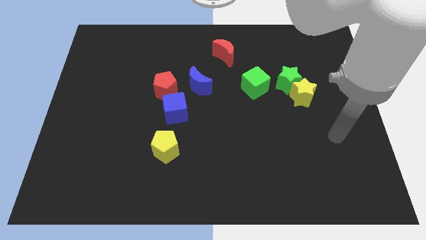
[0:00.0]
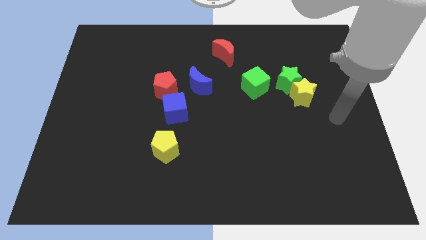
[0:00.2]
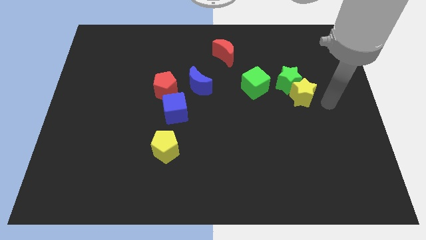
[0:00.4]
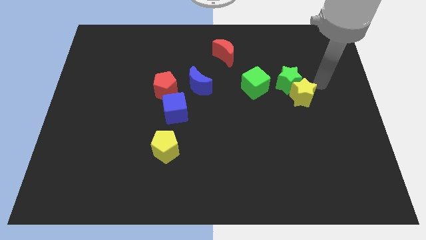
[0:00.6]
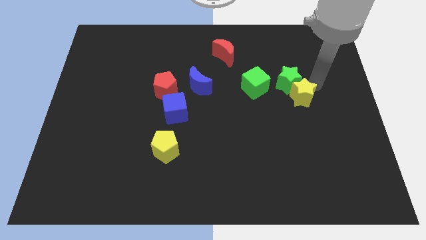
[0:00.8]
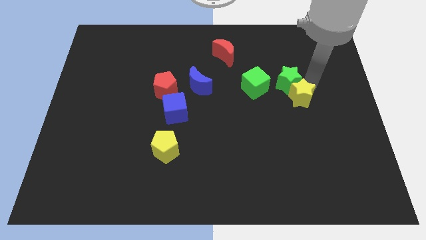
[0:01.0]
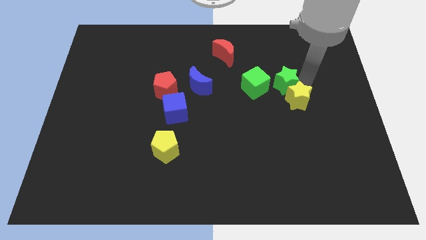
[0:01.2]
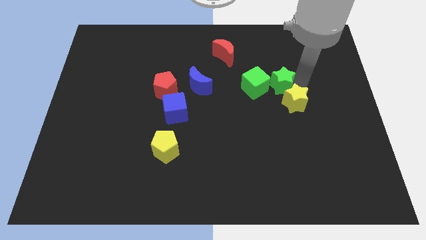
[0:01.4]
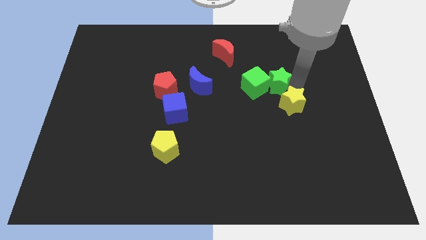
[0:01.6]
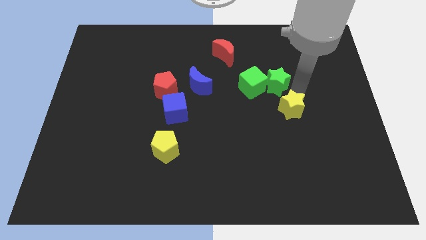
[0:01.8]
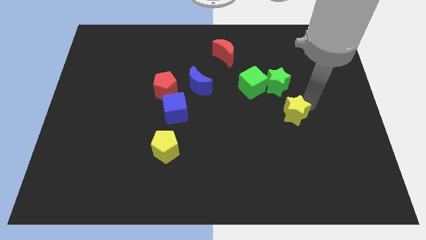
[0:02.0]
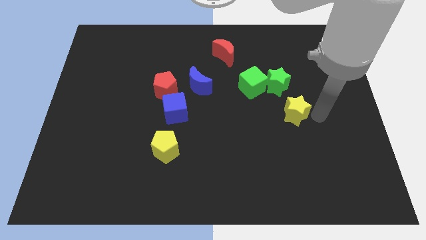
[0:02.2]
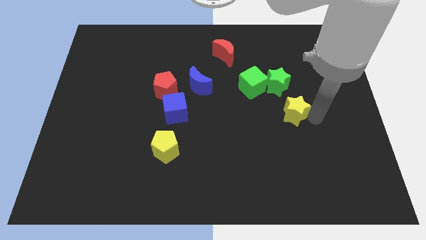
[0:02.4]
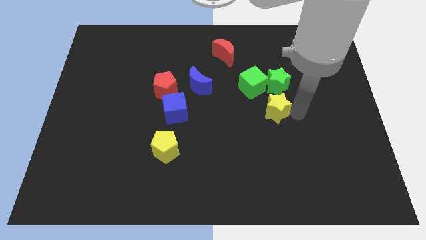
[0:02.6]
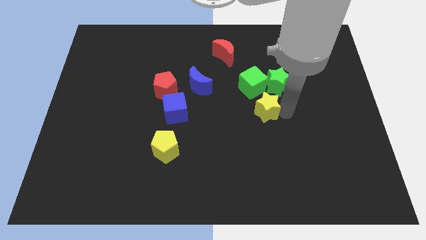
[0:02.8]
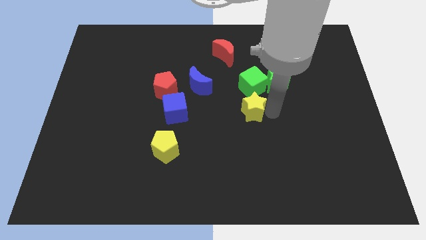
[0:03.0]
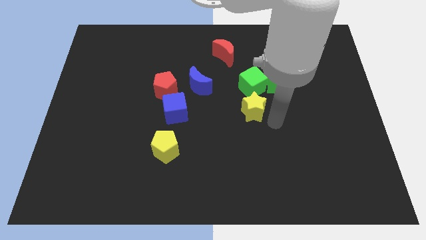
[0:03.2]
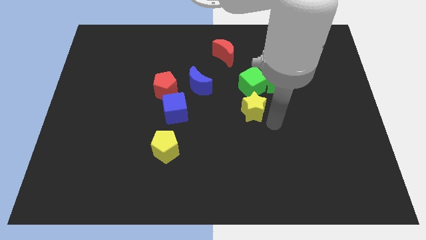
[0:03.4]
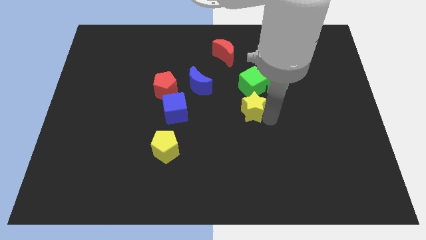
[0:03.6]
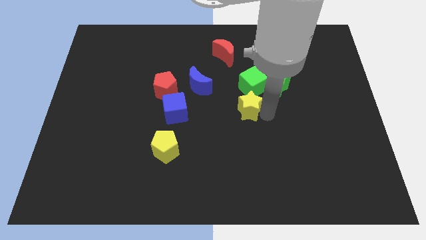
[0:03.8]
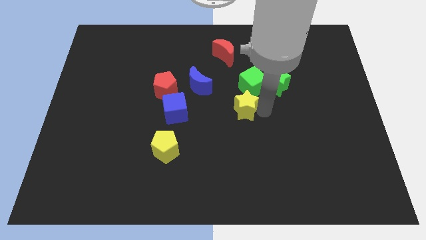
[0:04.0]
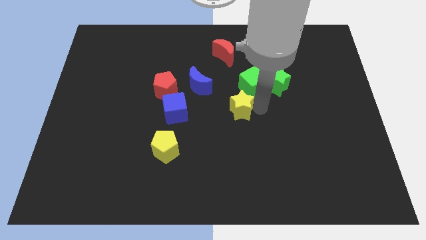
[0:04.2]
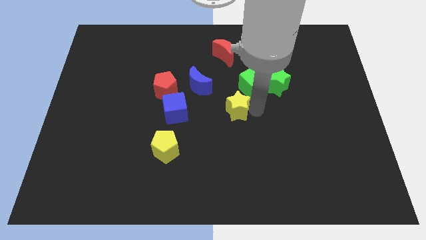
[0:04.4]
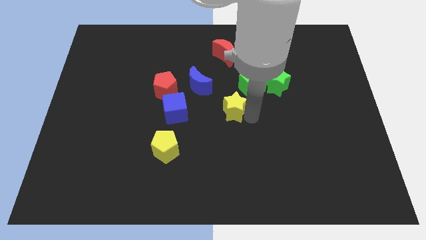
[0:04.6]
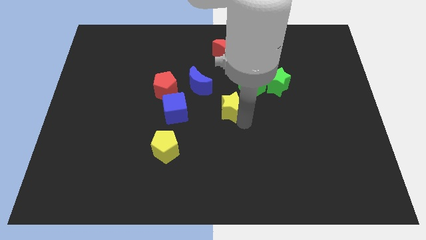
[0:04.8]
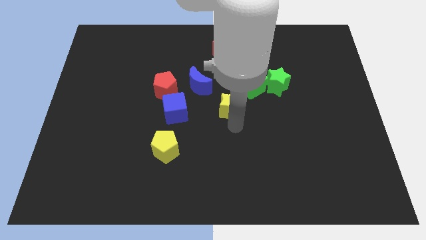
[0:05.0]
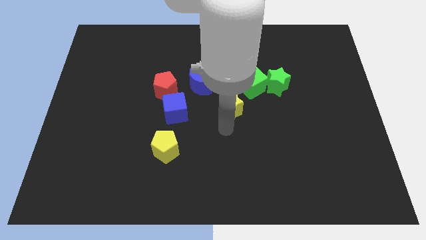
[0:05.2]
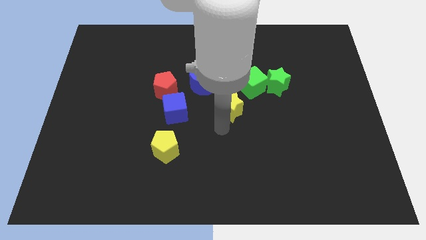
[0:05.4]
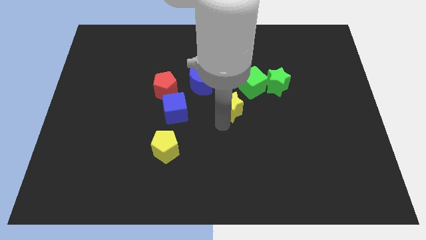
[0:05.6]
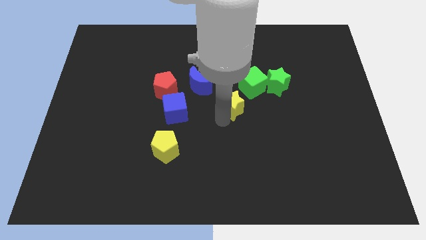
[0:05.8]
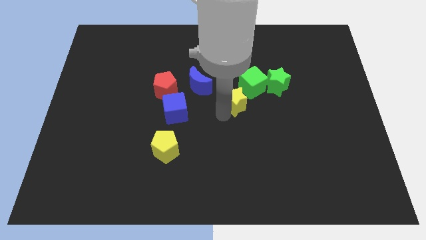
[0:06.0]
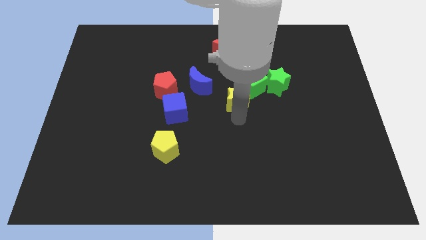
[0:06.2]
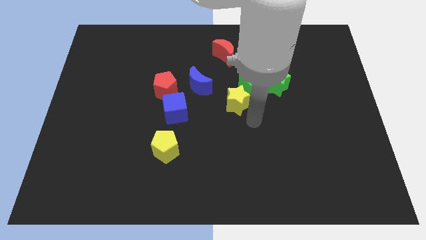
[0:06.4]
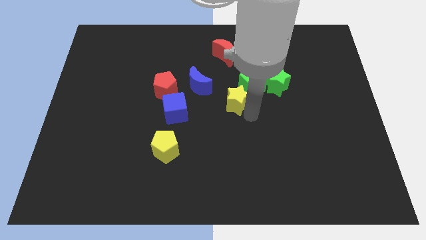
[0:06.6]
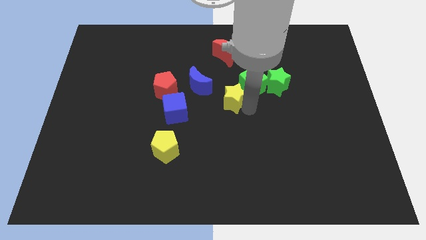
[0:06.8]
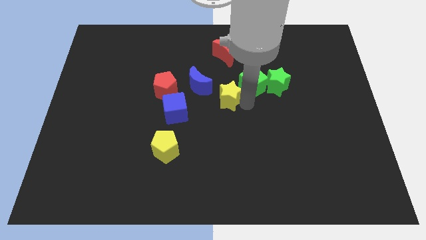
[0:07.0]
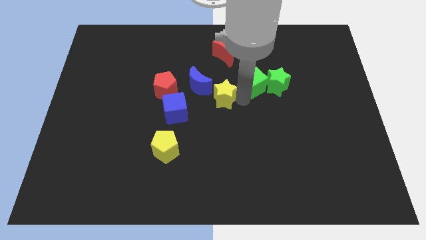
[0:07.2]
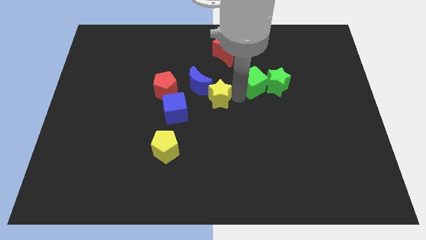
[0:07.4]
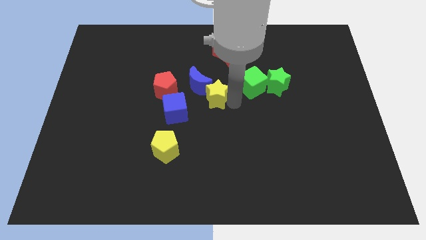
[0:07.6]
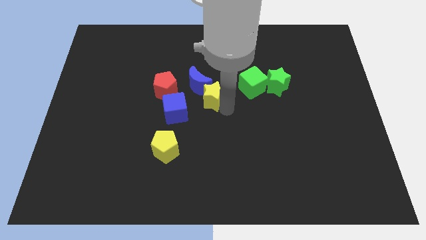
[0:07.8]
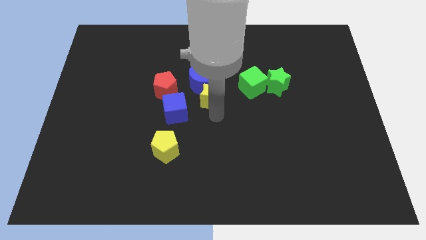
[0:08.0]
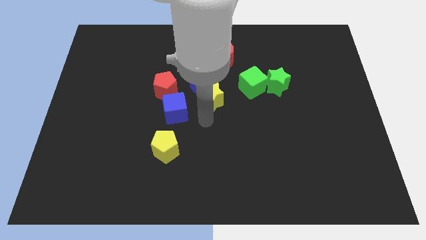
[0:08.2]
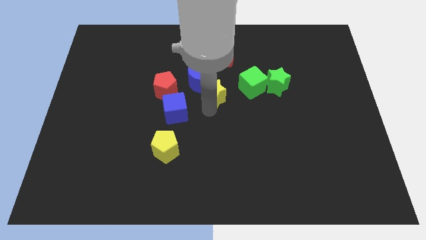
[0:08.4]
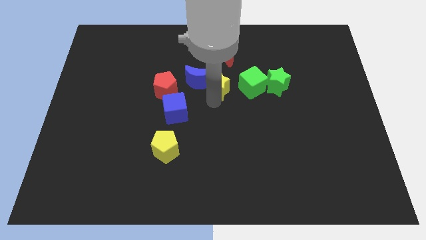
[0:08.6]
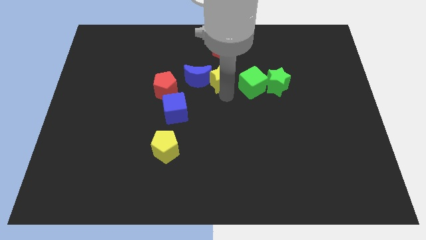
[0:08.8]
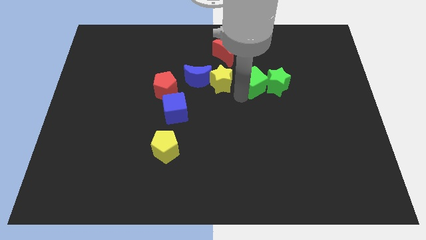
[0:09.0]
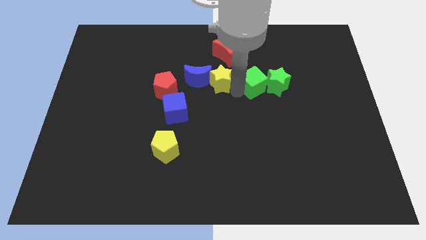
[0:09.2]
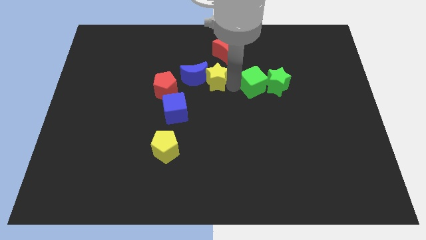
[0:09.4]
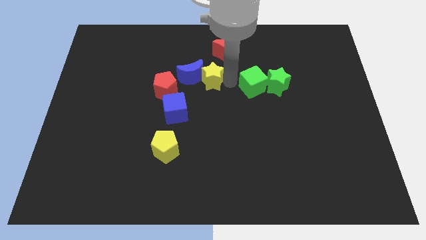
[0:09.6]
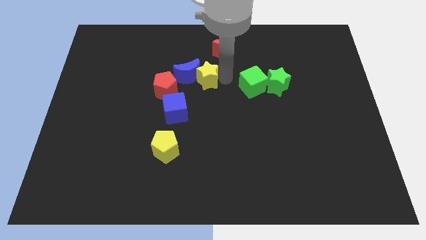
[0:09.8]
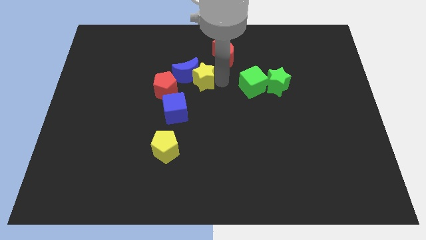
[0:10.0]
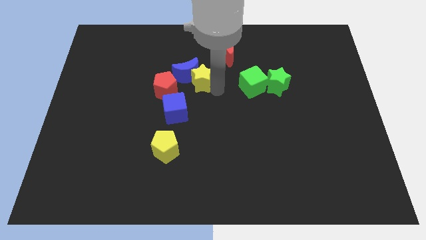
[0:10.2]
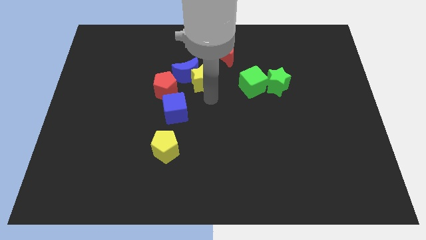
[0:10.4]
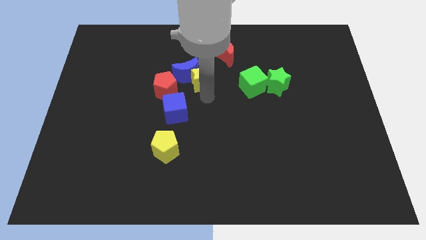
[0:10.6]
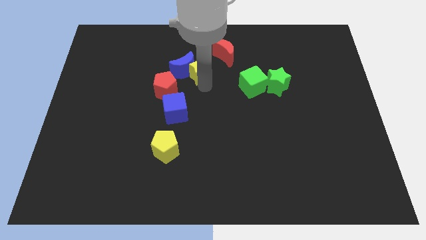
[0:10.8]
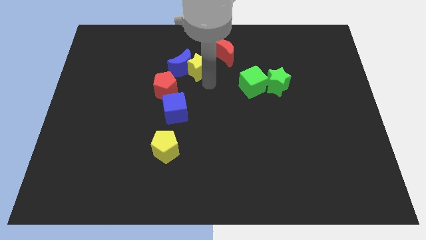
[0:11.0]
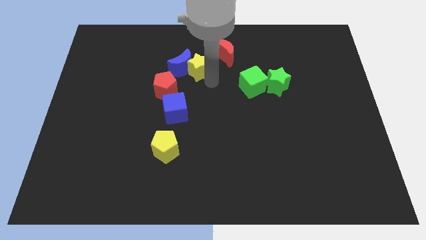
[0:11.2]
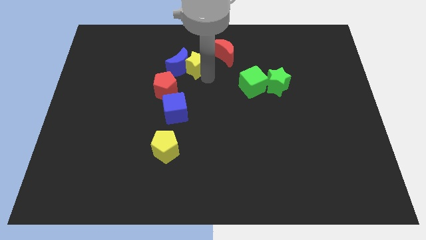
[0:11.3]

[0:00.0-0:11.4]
push the yellow star to the left of the red moon

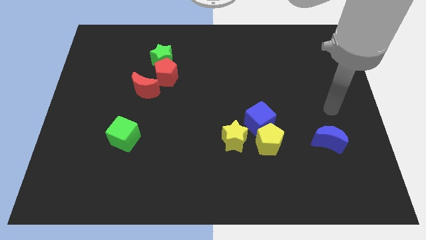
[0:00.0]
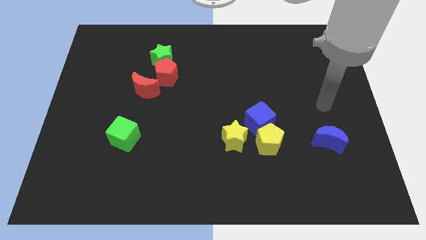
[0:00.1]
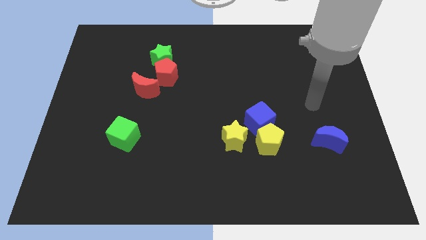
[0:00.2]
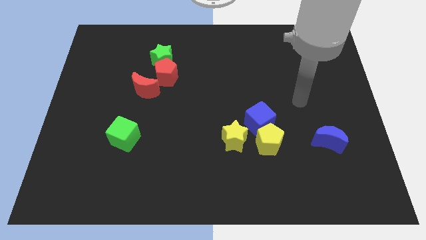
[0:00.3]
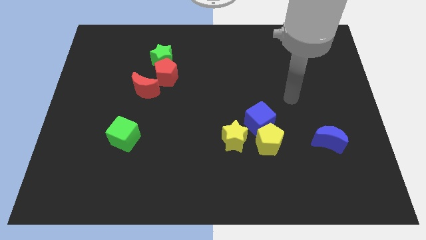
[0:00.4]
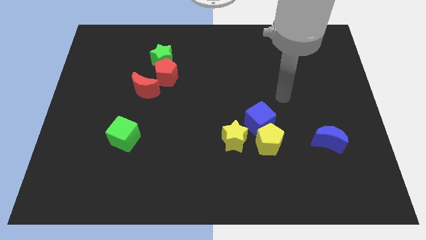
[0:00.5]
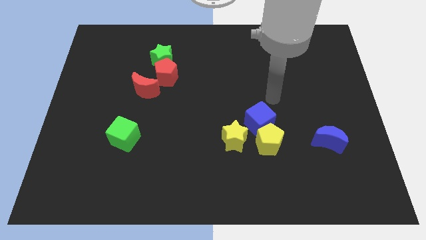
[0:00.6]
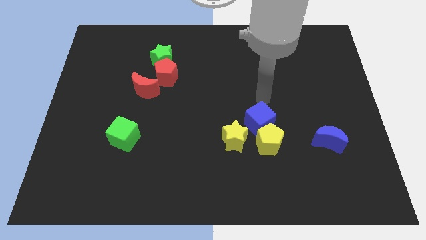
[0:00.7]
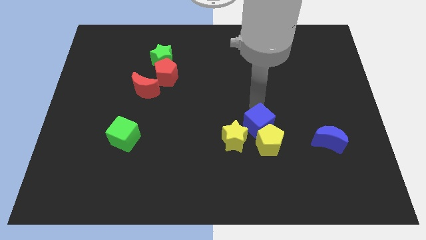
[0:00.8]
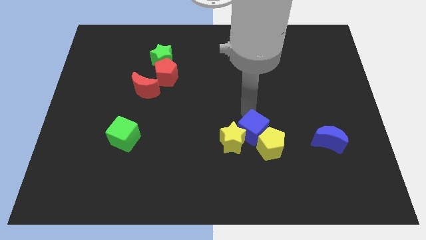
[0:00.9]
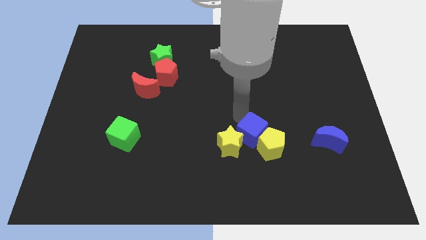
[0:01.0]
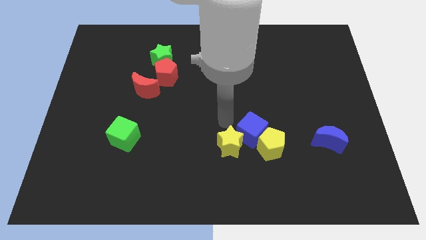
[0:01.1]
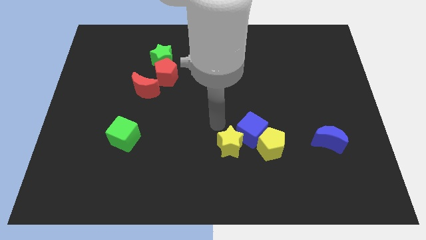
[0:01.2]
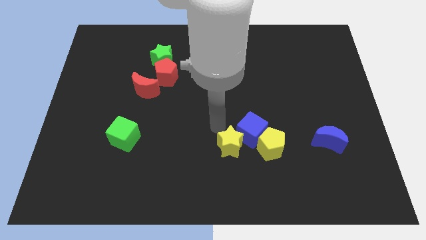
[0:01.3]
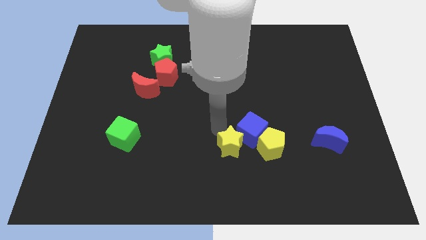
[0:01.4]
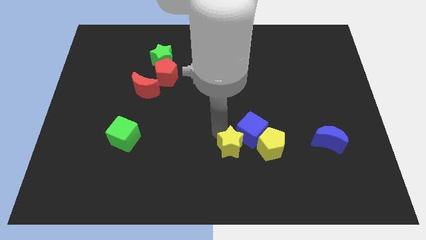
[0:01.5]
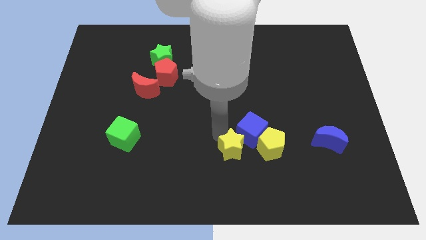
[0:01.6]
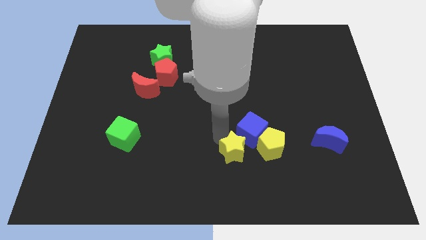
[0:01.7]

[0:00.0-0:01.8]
slide the yellow star diagonally down and to the left of the yellow pentagon
